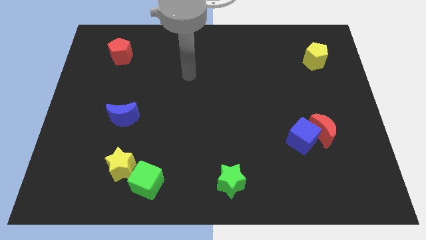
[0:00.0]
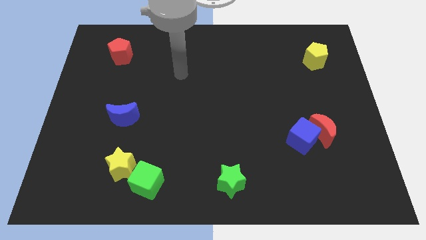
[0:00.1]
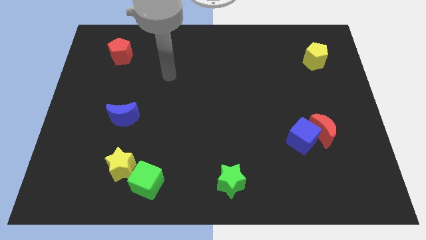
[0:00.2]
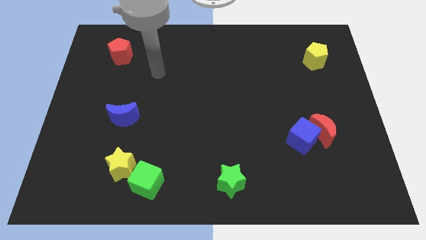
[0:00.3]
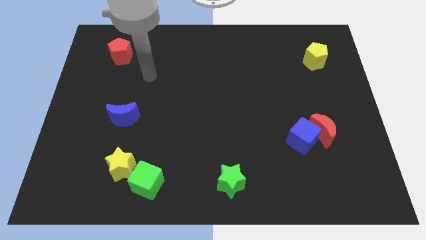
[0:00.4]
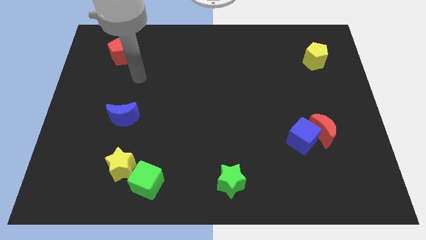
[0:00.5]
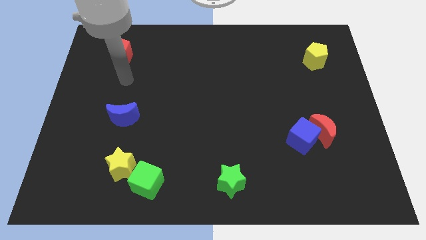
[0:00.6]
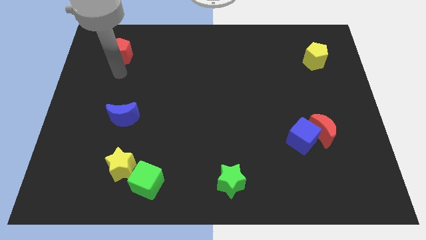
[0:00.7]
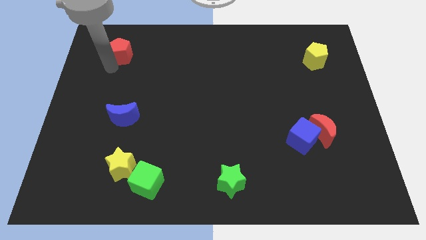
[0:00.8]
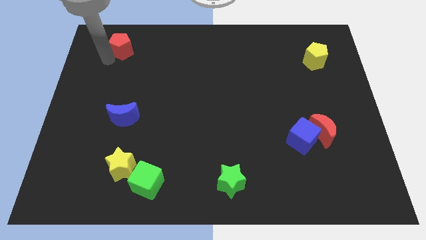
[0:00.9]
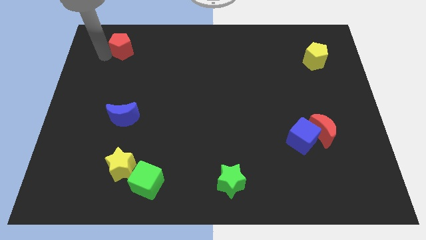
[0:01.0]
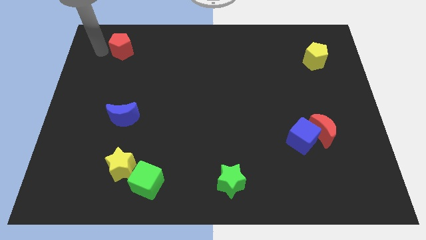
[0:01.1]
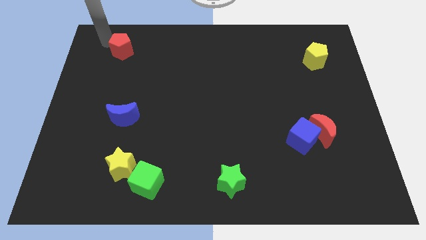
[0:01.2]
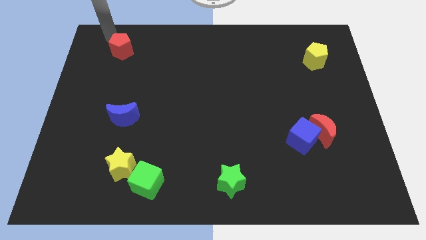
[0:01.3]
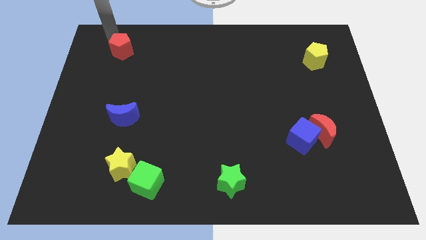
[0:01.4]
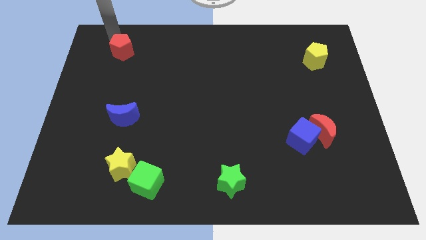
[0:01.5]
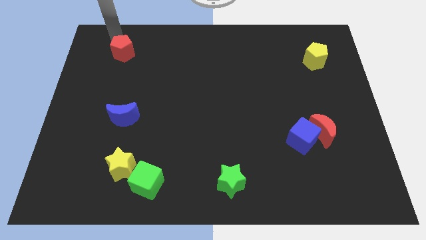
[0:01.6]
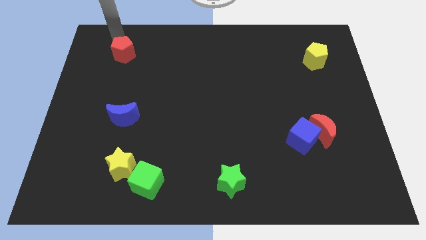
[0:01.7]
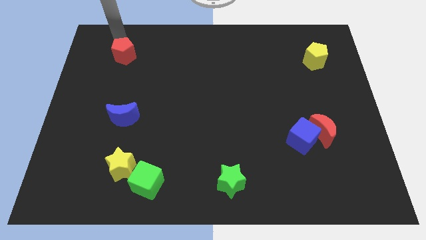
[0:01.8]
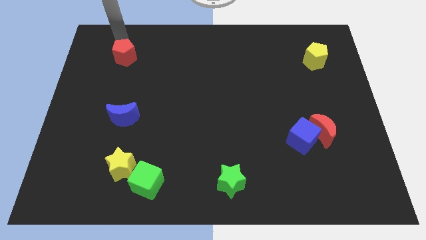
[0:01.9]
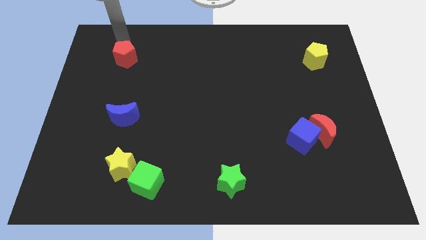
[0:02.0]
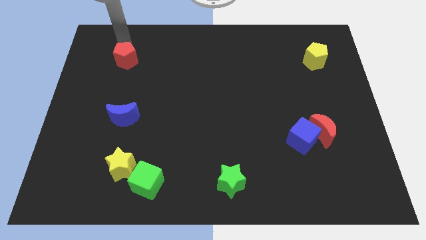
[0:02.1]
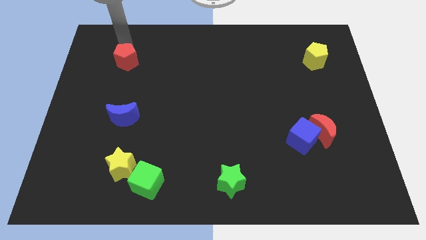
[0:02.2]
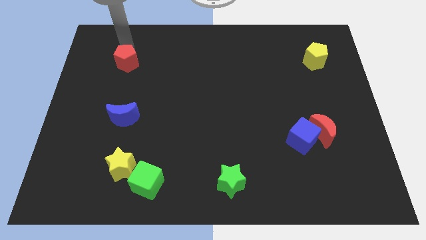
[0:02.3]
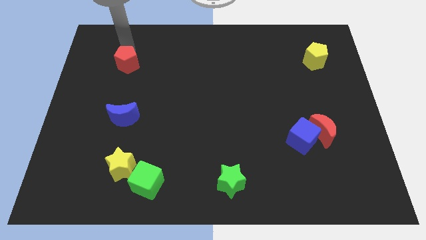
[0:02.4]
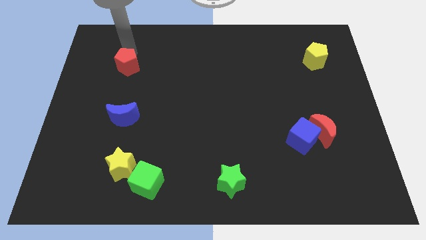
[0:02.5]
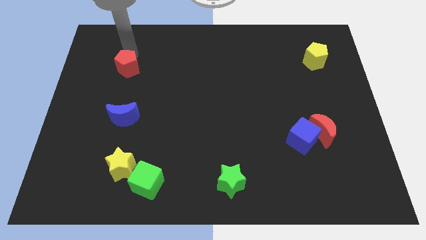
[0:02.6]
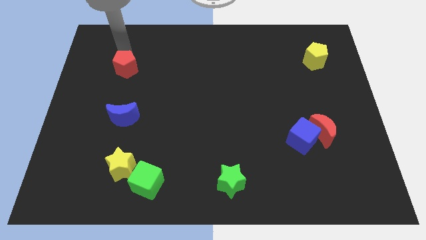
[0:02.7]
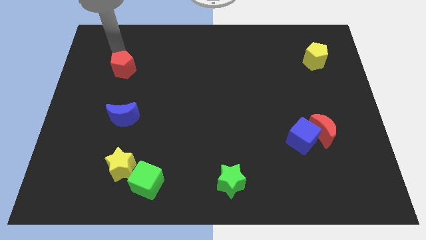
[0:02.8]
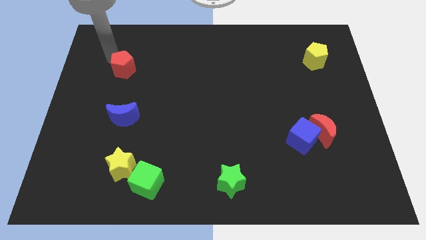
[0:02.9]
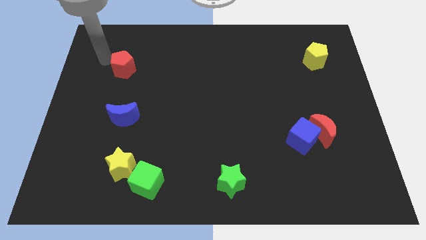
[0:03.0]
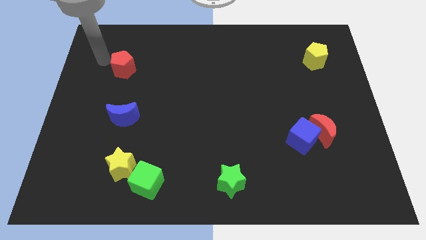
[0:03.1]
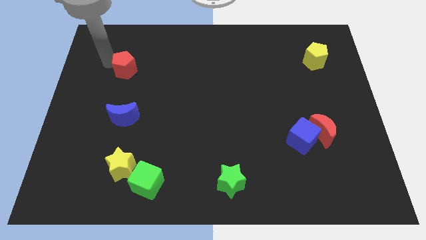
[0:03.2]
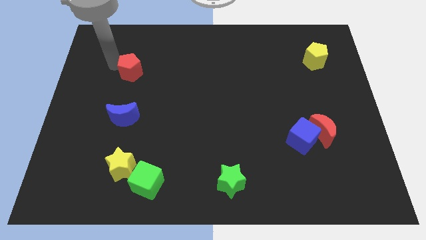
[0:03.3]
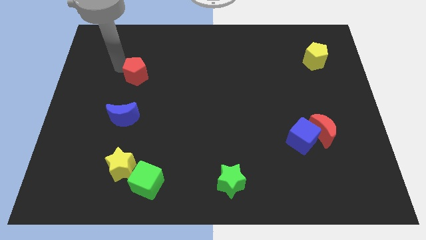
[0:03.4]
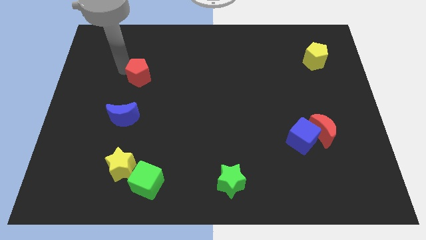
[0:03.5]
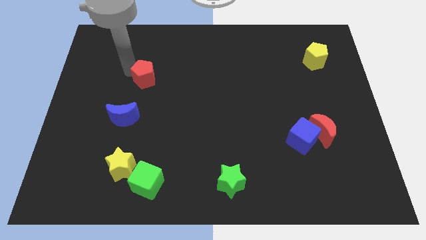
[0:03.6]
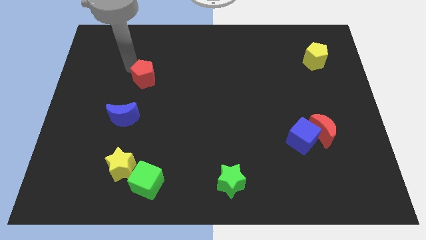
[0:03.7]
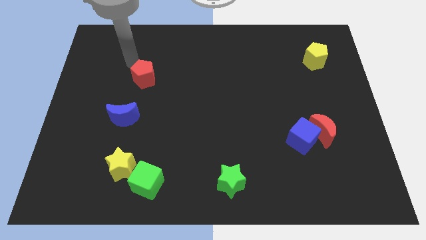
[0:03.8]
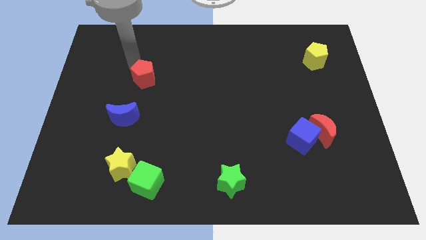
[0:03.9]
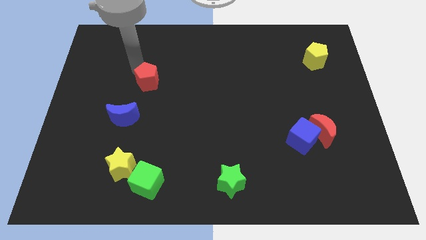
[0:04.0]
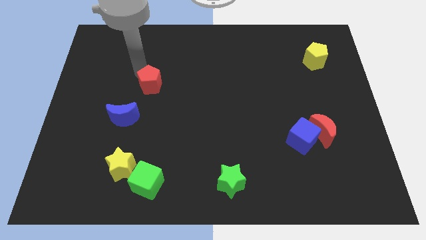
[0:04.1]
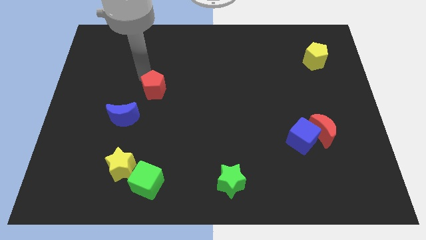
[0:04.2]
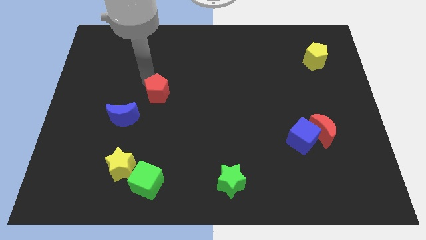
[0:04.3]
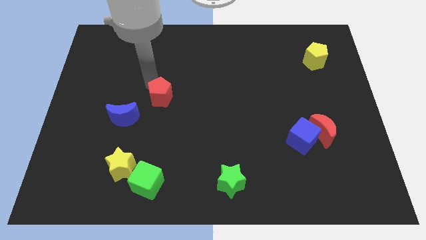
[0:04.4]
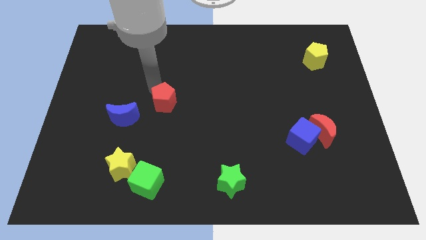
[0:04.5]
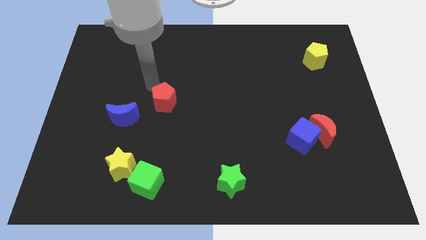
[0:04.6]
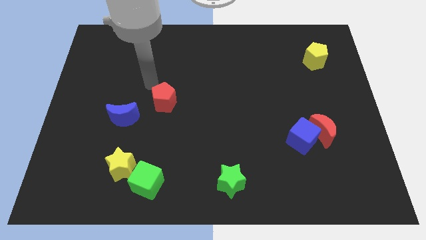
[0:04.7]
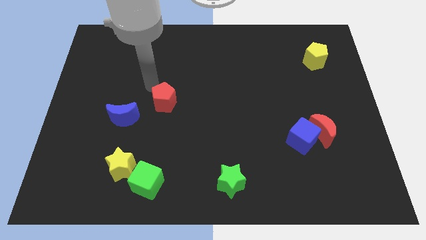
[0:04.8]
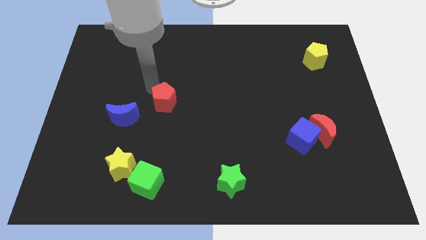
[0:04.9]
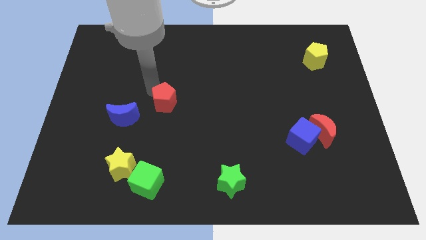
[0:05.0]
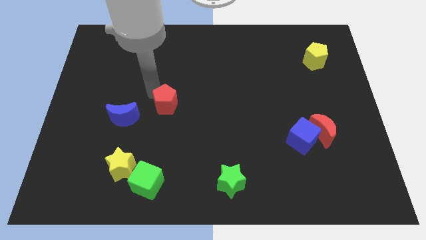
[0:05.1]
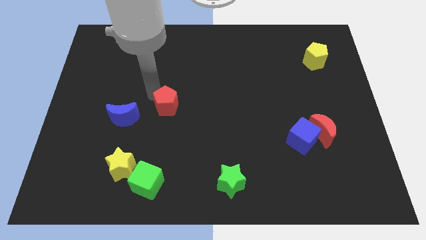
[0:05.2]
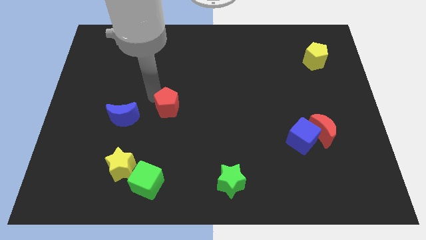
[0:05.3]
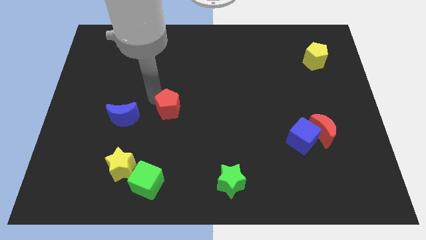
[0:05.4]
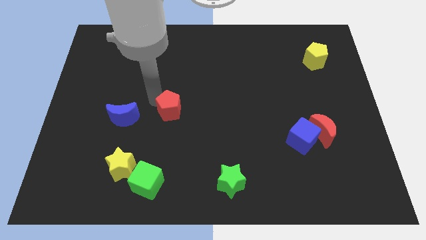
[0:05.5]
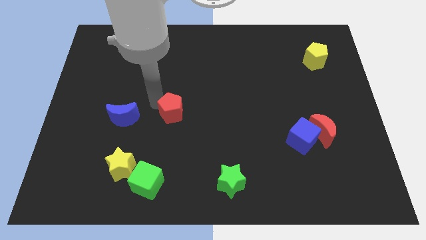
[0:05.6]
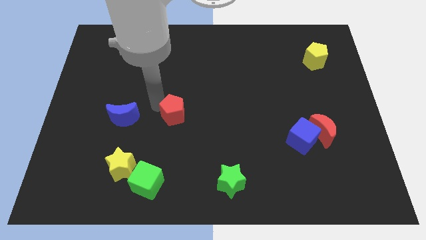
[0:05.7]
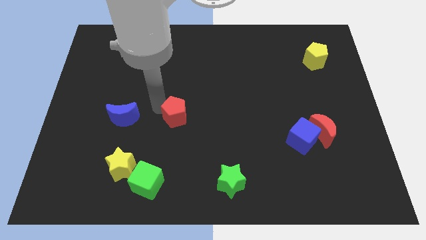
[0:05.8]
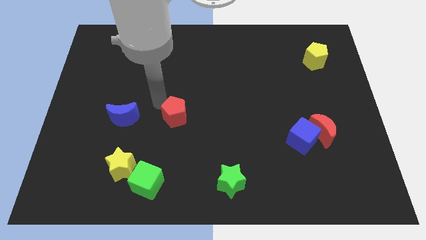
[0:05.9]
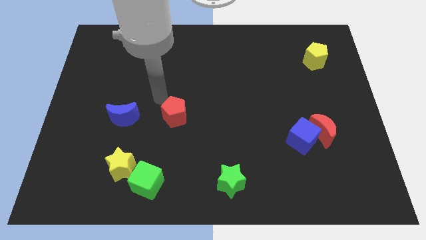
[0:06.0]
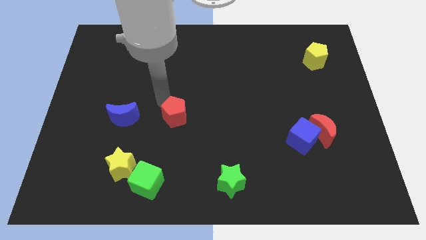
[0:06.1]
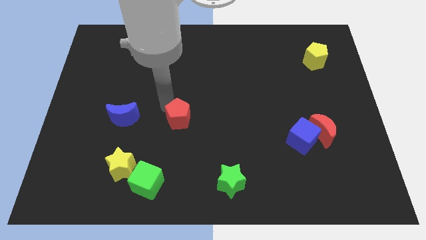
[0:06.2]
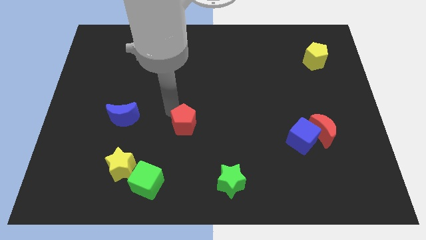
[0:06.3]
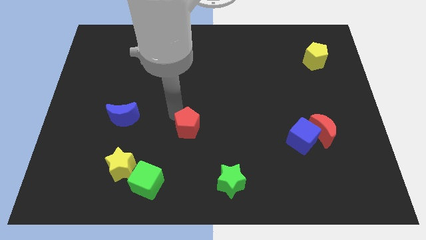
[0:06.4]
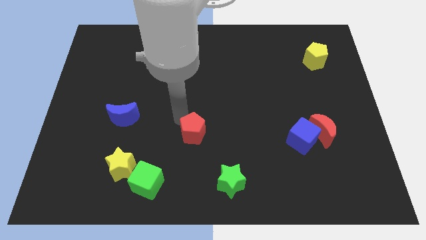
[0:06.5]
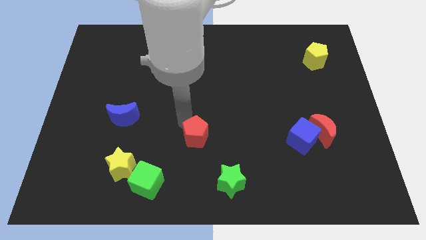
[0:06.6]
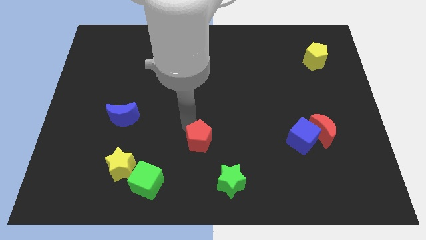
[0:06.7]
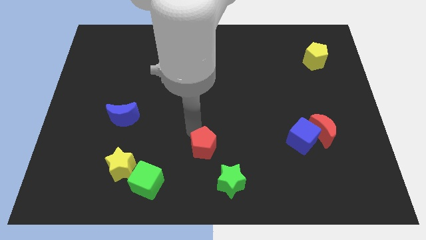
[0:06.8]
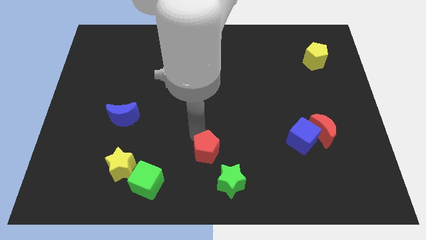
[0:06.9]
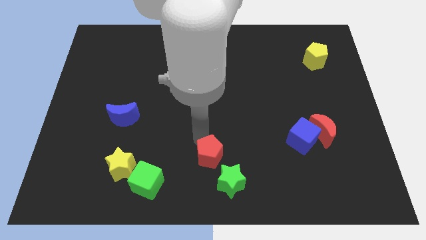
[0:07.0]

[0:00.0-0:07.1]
put the red pentagon to the bottom side
